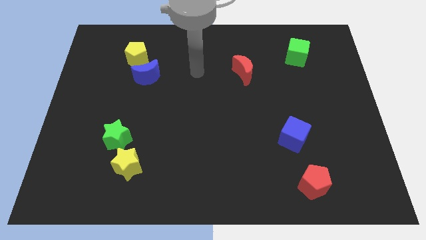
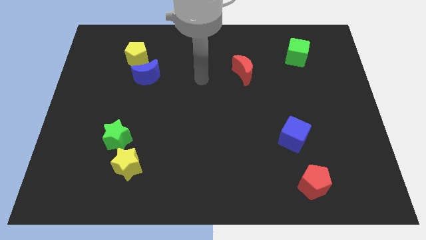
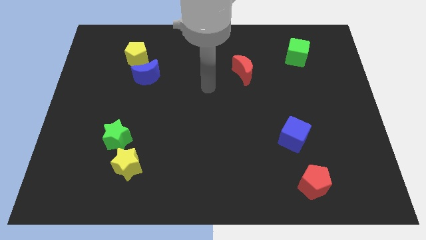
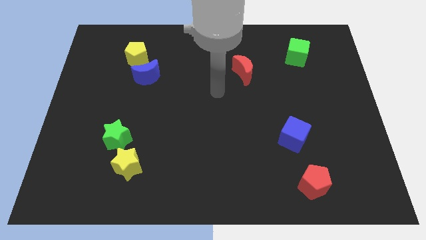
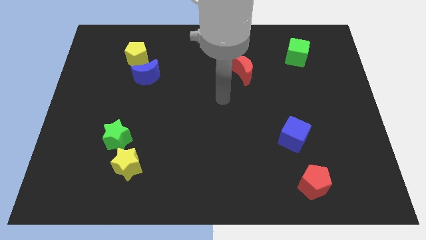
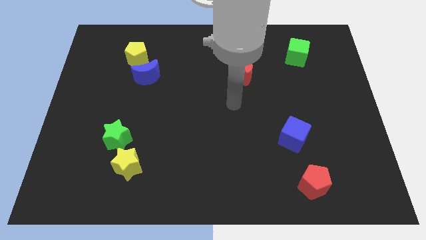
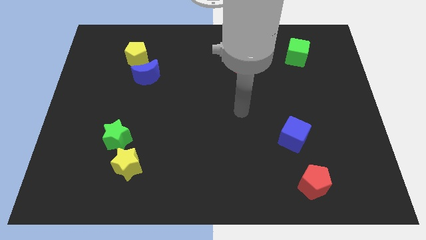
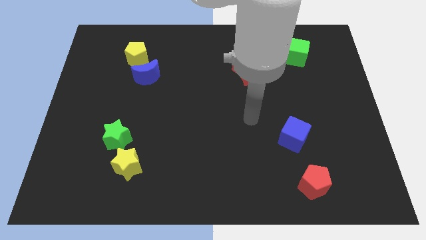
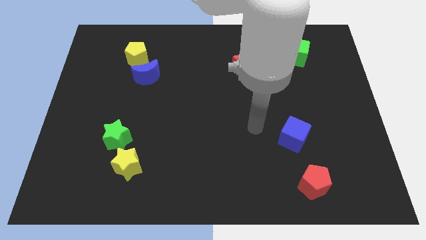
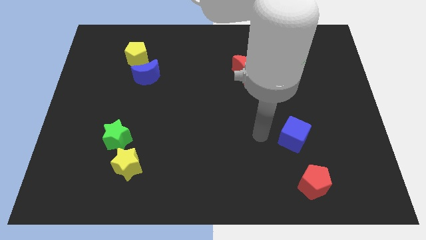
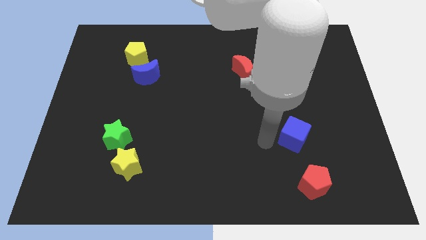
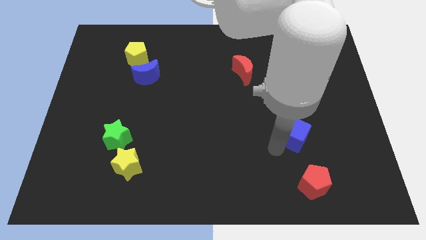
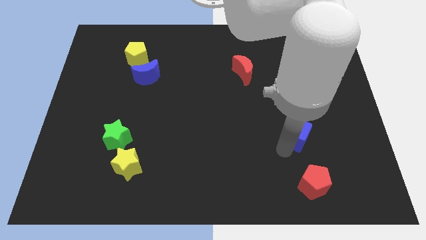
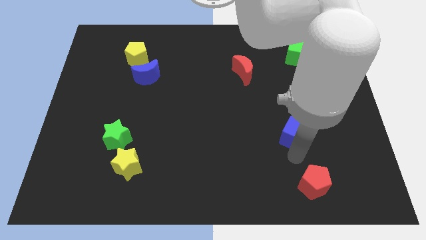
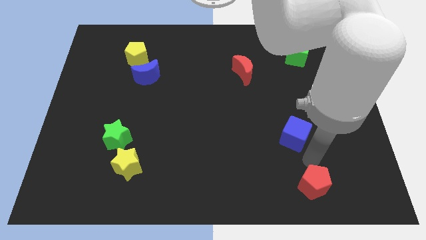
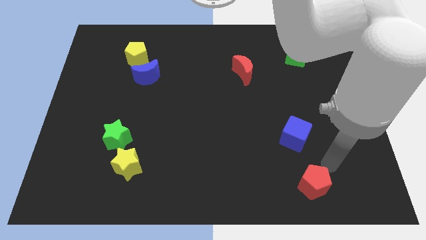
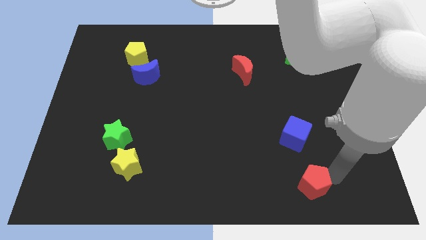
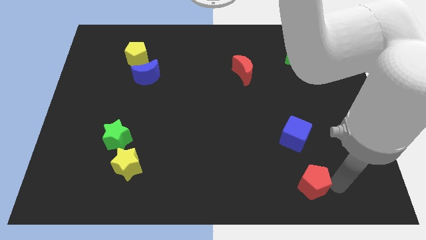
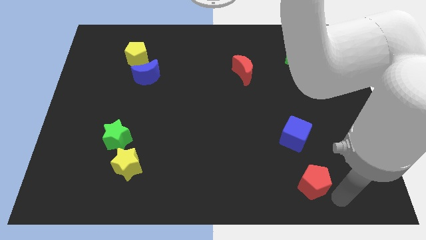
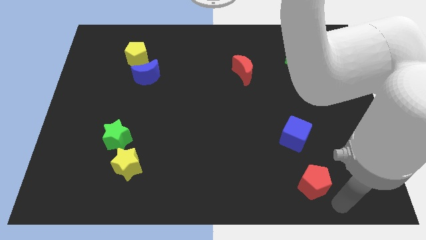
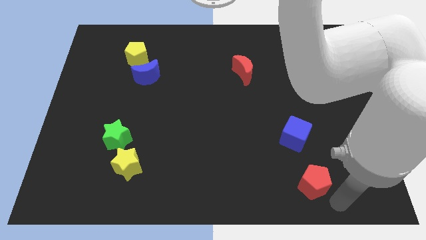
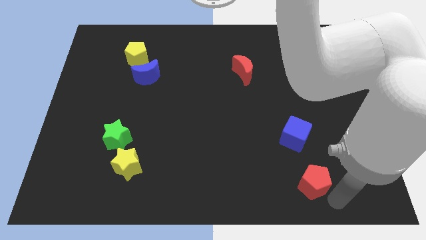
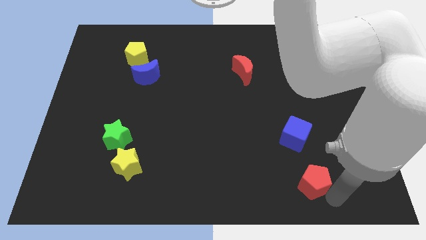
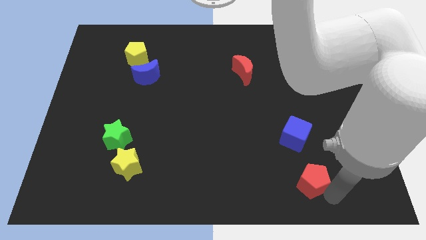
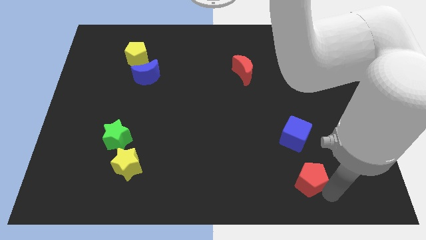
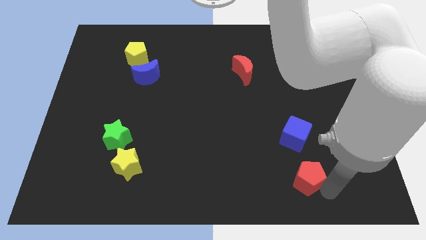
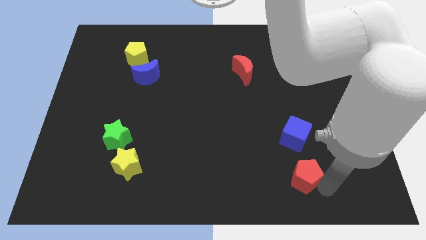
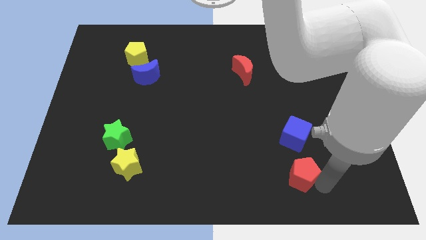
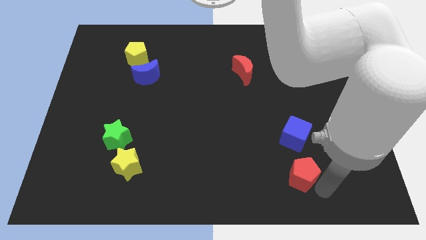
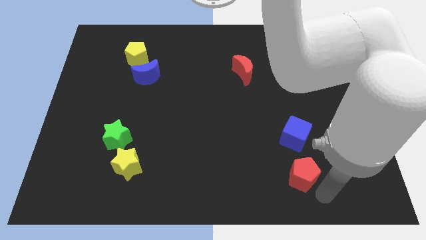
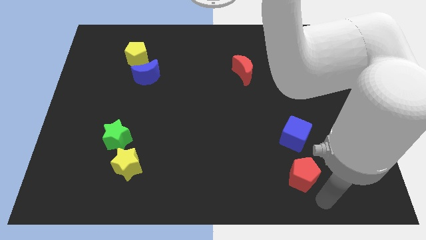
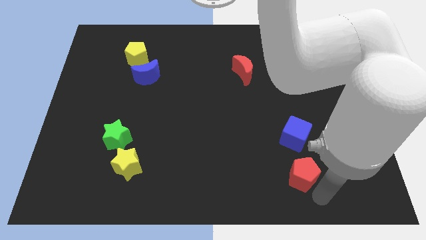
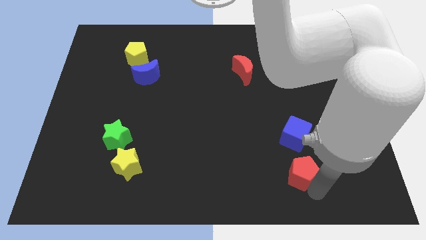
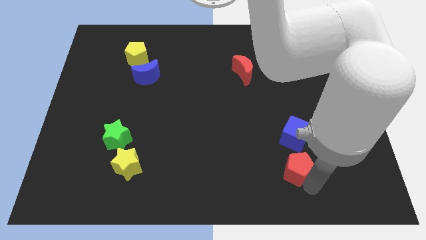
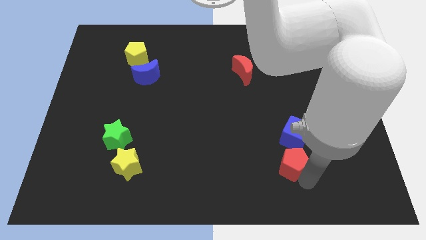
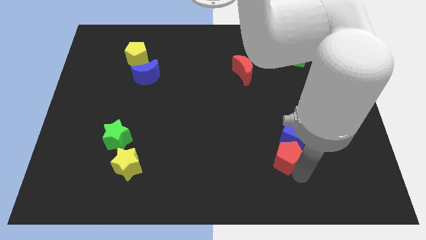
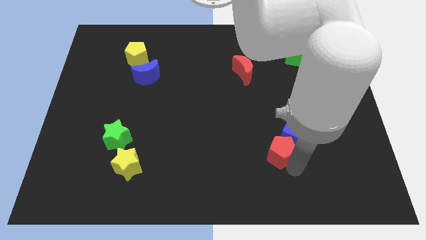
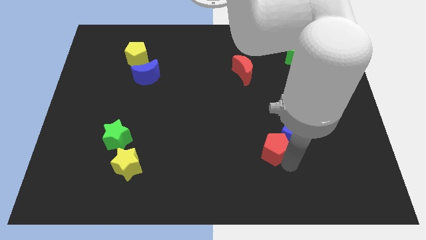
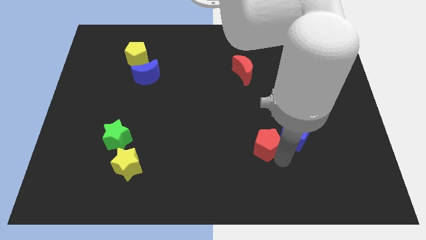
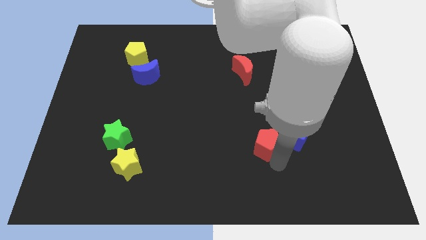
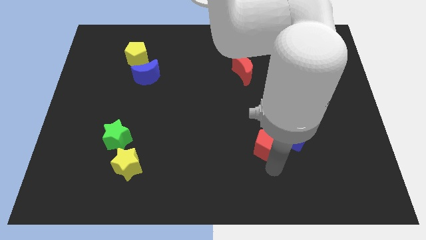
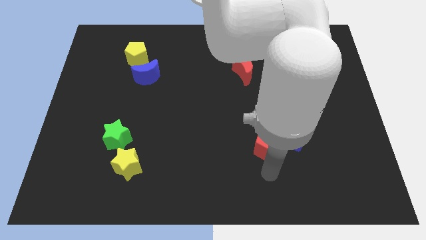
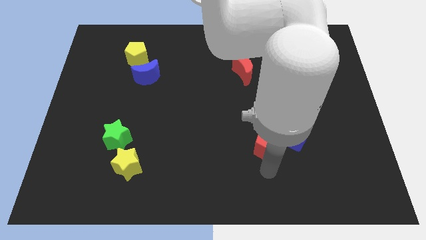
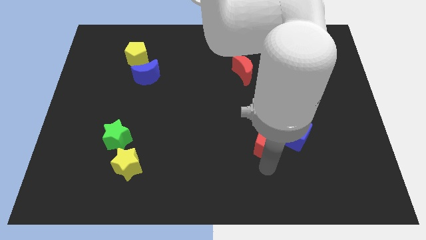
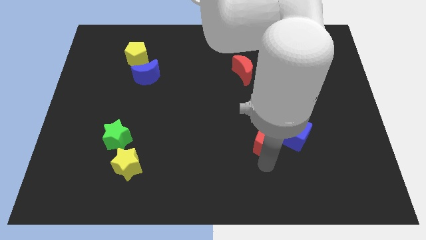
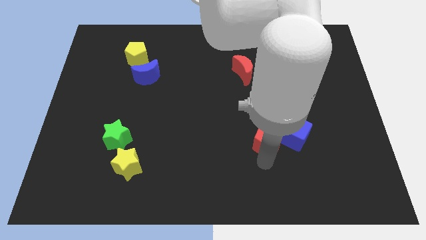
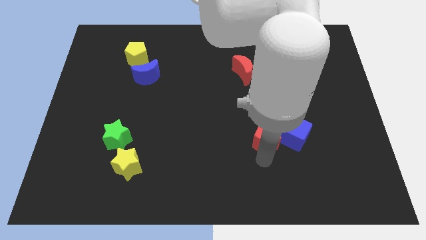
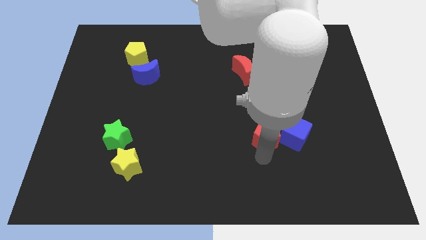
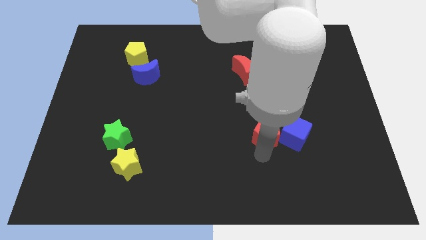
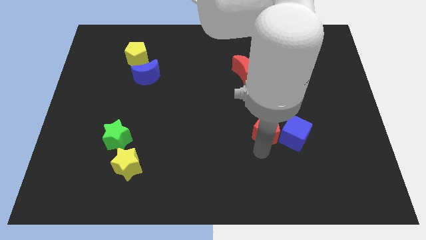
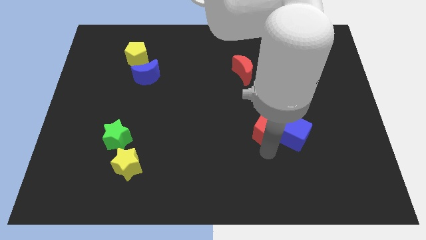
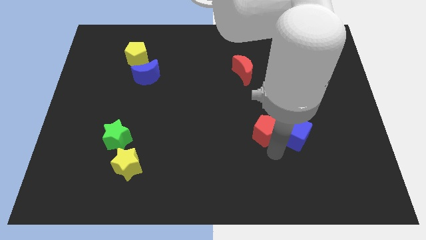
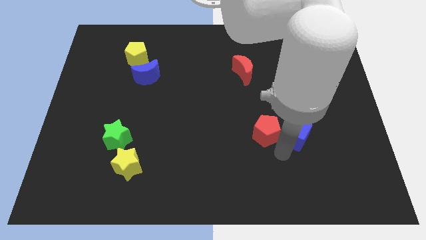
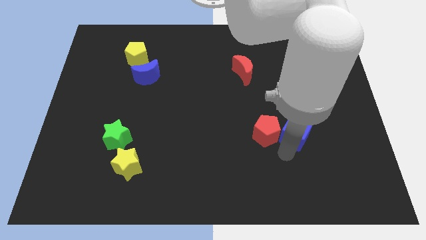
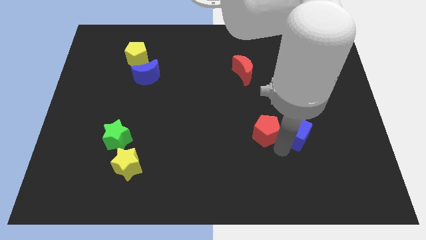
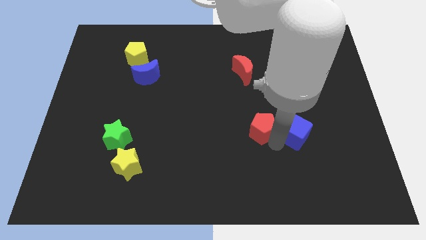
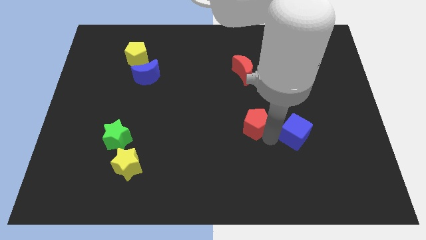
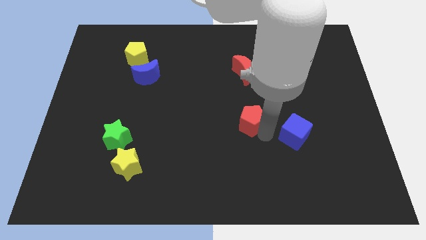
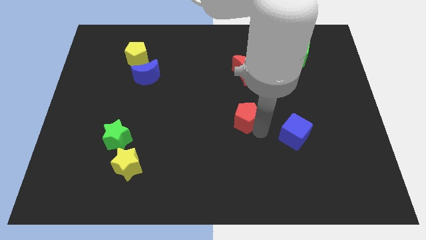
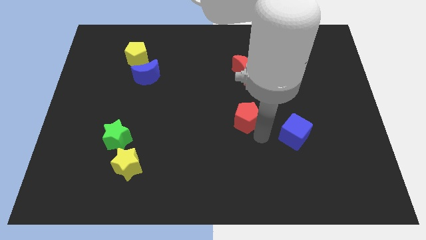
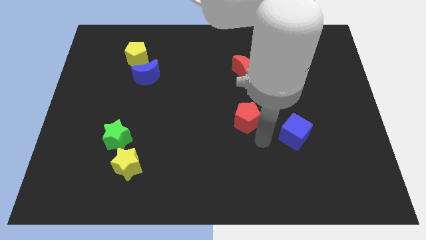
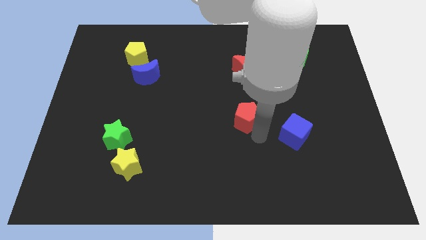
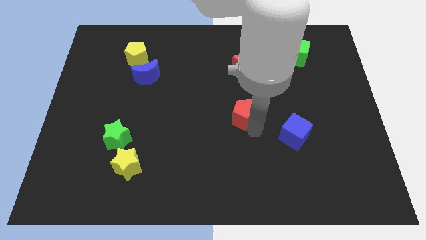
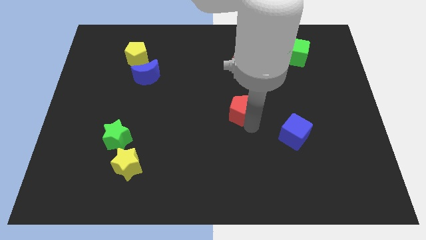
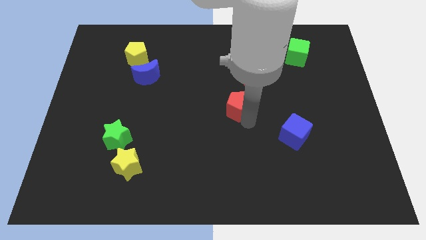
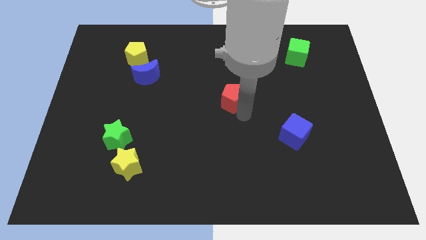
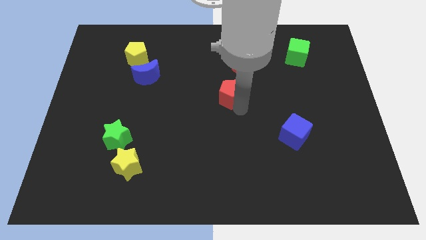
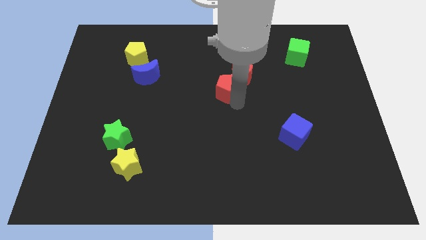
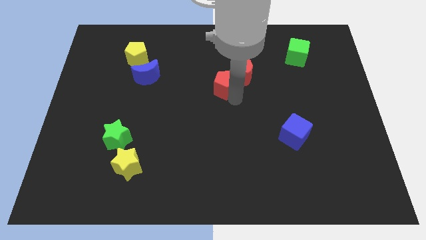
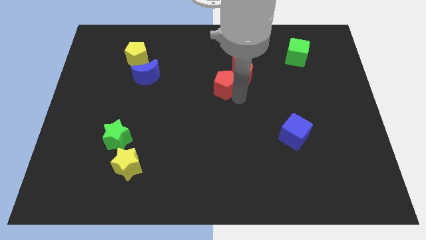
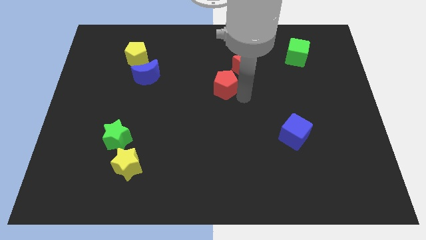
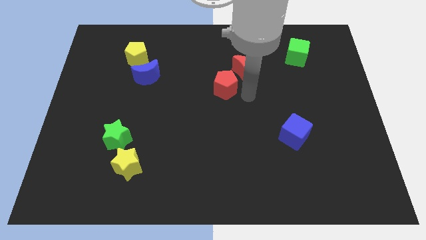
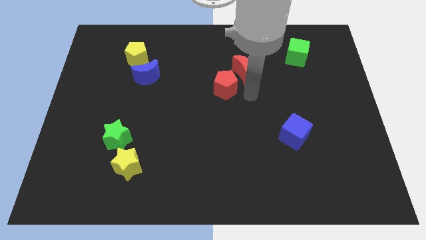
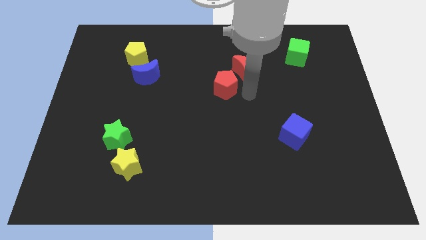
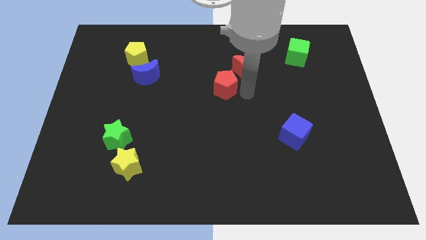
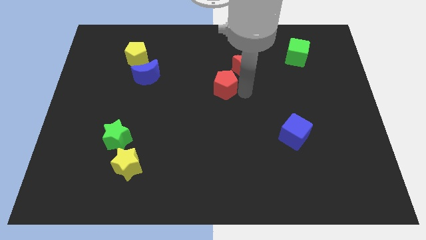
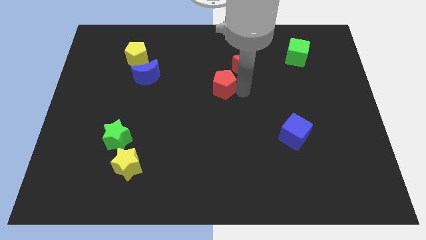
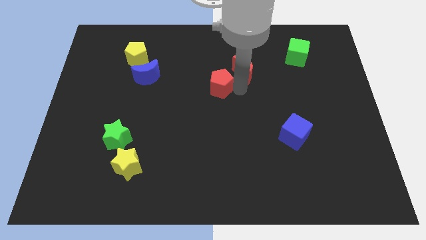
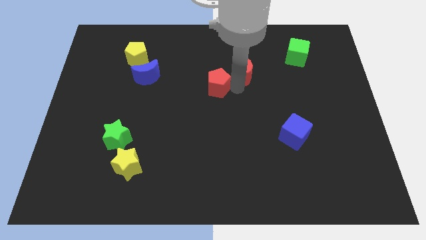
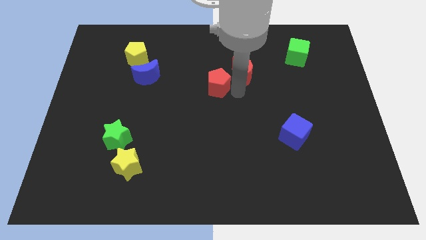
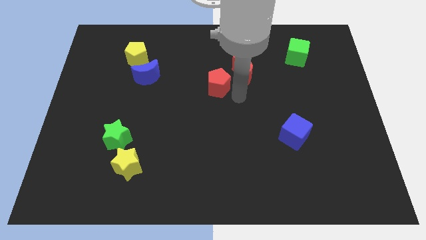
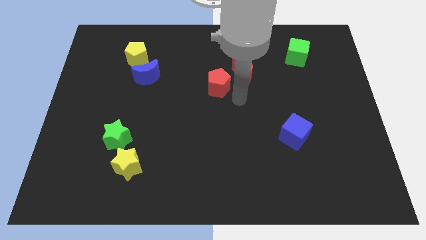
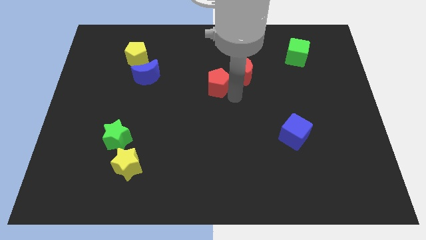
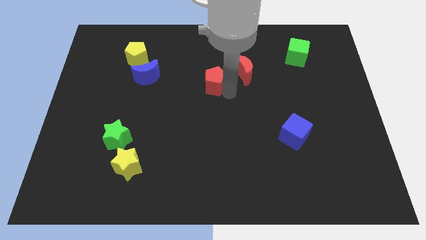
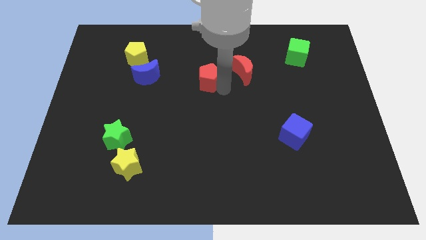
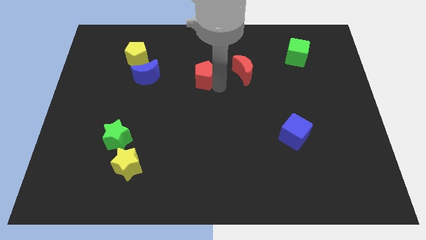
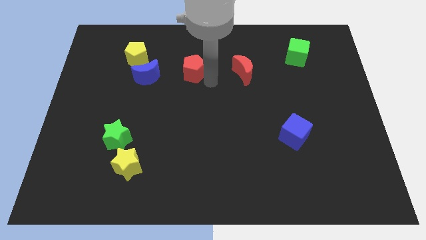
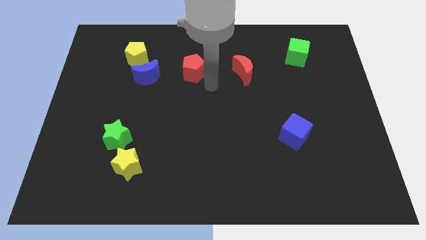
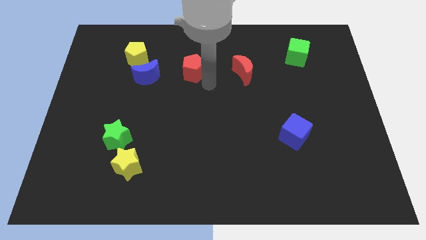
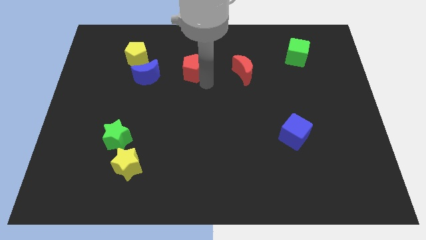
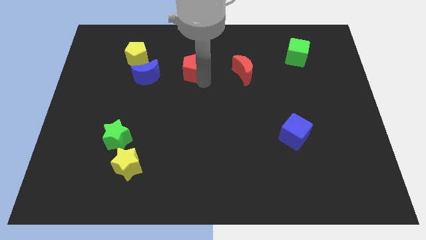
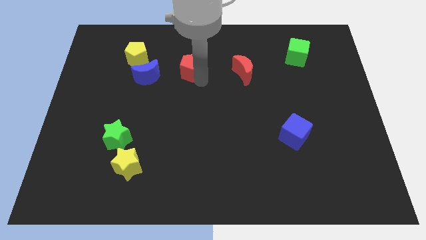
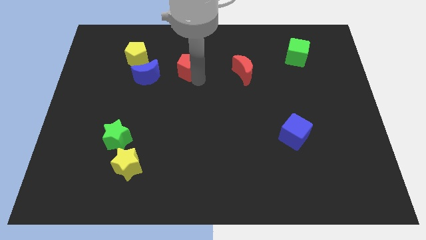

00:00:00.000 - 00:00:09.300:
put the red pentagon just right of the yellow pentagon
